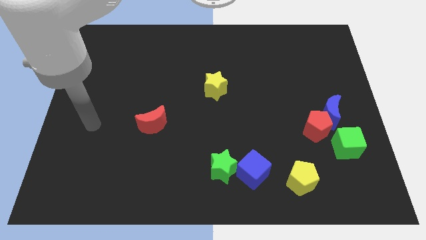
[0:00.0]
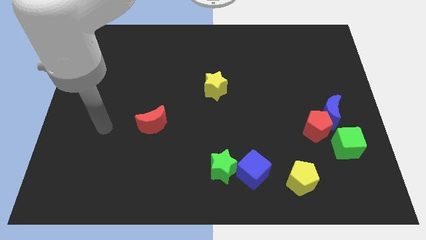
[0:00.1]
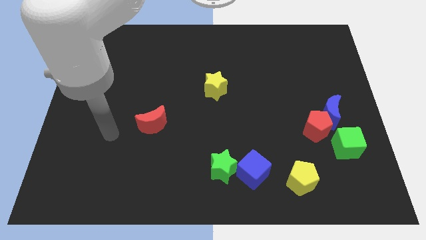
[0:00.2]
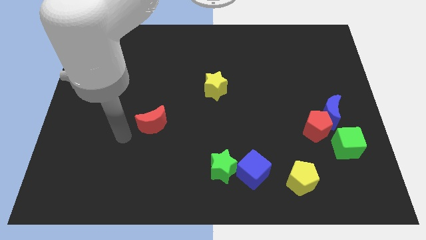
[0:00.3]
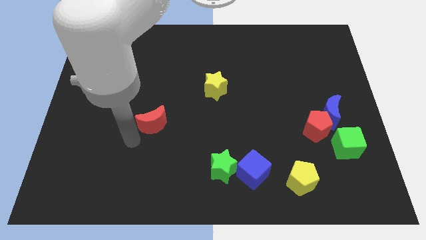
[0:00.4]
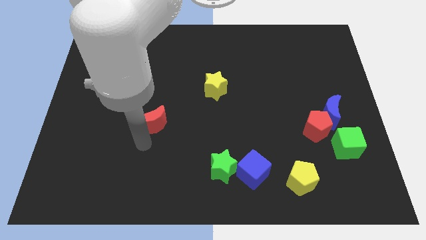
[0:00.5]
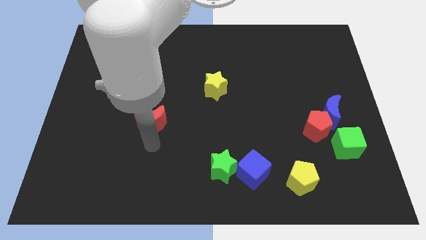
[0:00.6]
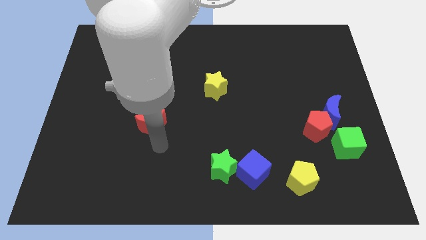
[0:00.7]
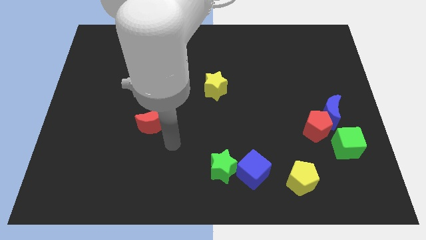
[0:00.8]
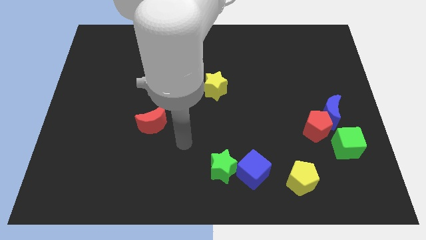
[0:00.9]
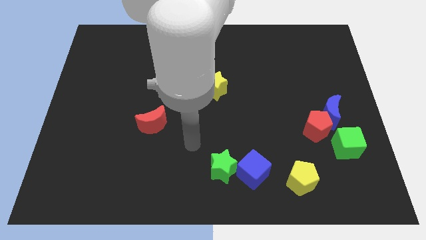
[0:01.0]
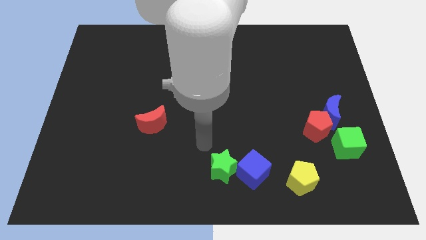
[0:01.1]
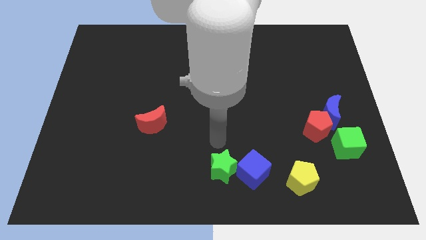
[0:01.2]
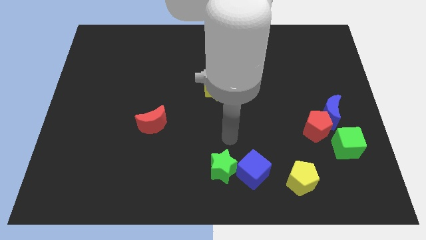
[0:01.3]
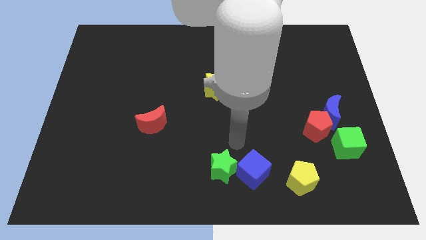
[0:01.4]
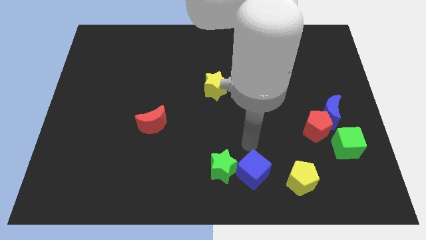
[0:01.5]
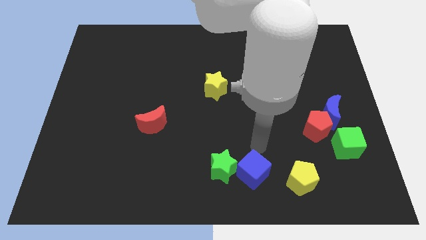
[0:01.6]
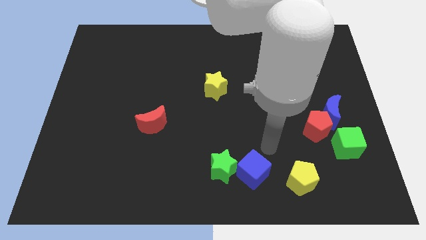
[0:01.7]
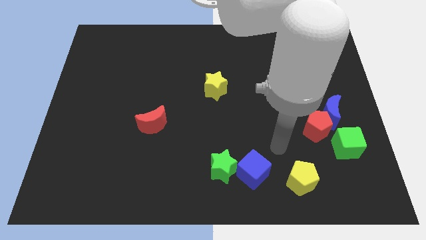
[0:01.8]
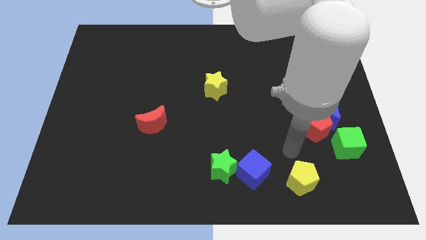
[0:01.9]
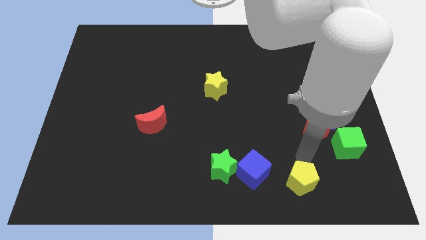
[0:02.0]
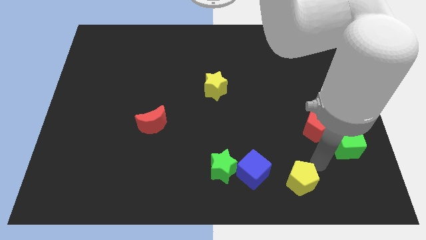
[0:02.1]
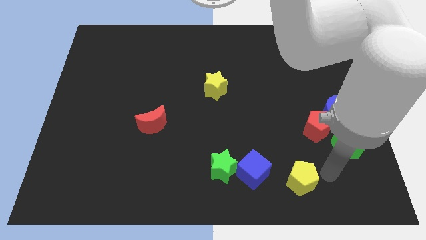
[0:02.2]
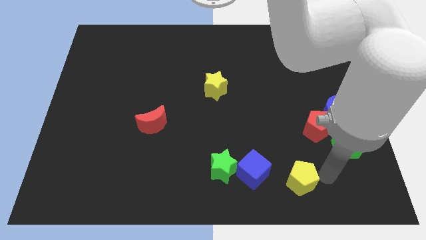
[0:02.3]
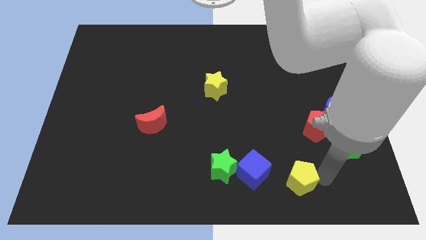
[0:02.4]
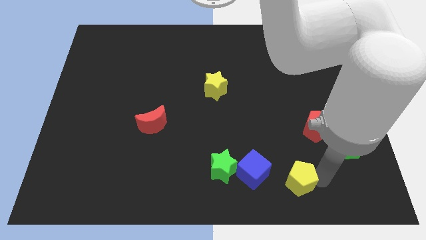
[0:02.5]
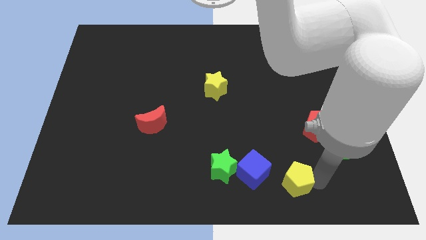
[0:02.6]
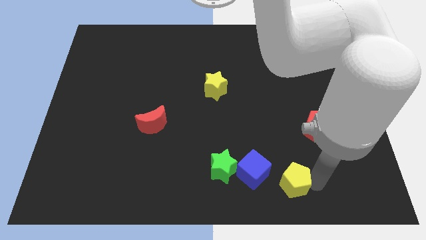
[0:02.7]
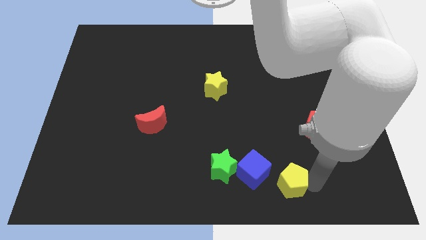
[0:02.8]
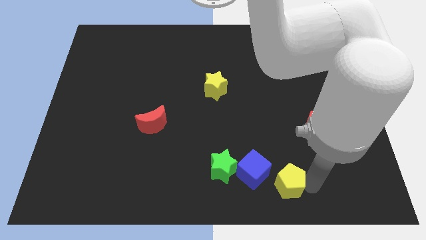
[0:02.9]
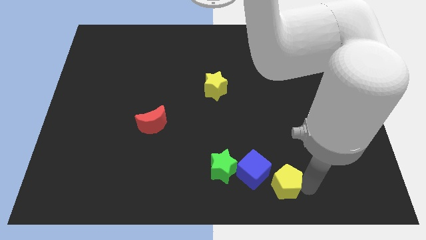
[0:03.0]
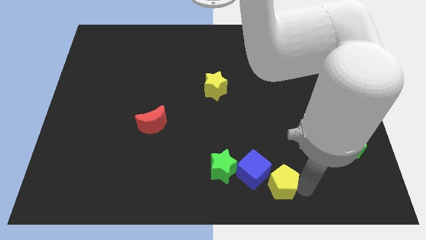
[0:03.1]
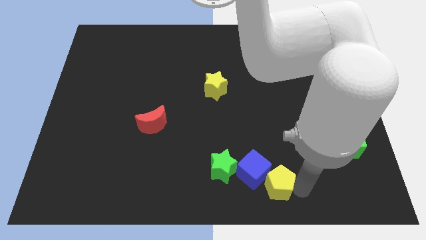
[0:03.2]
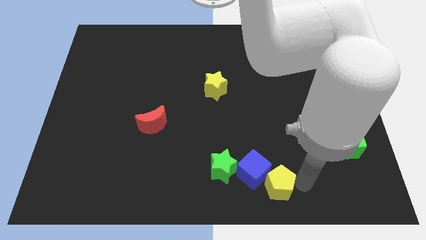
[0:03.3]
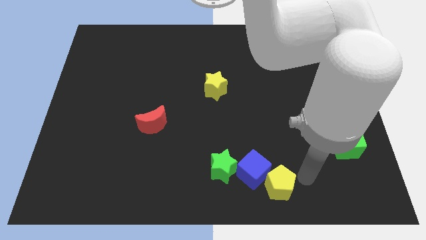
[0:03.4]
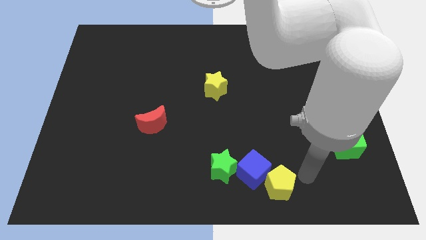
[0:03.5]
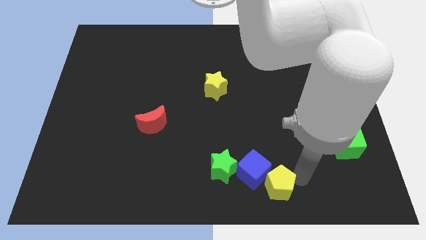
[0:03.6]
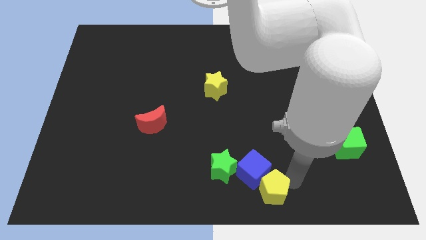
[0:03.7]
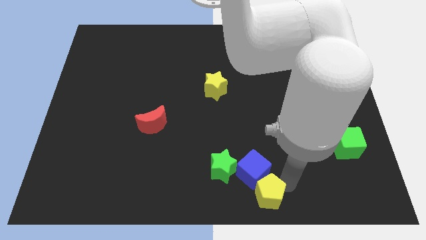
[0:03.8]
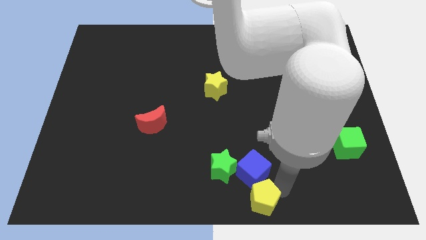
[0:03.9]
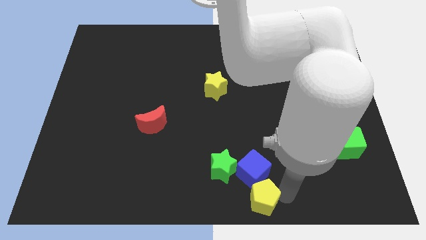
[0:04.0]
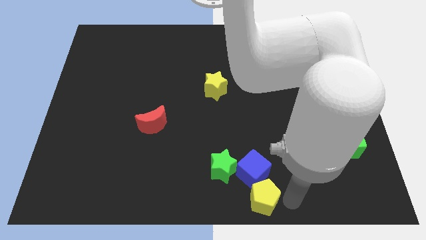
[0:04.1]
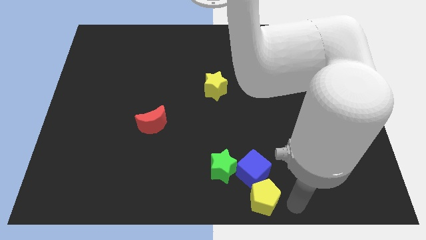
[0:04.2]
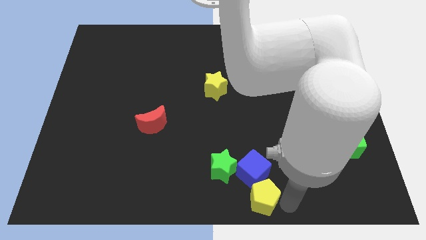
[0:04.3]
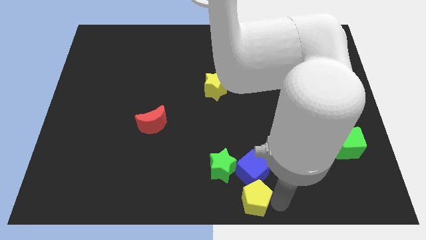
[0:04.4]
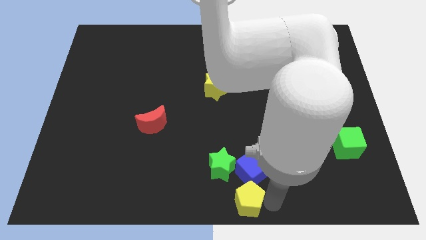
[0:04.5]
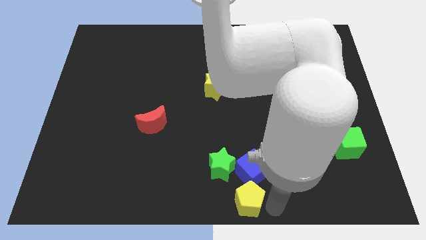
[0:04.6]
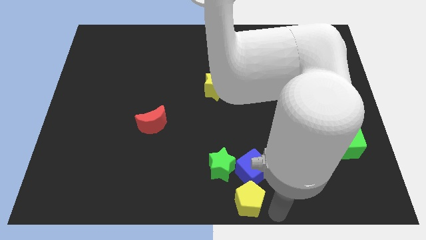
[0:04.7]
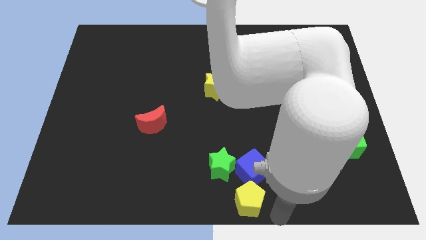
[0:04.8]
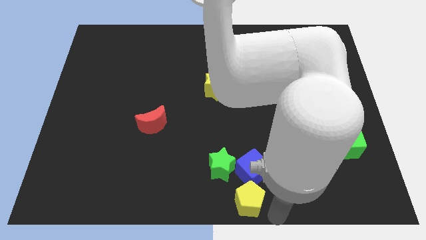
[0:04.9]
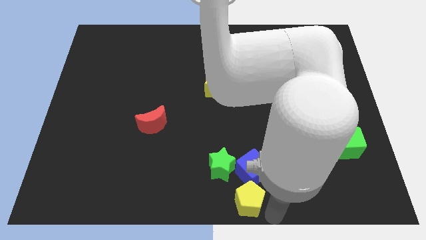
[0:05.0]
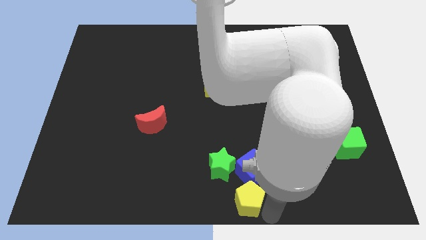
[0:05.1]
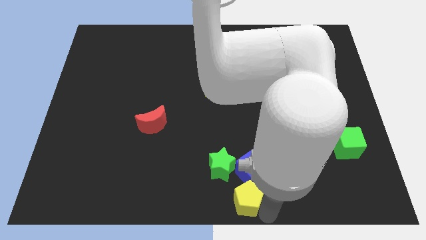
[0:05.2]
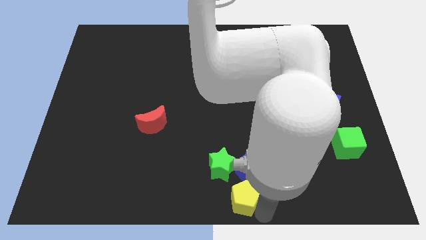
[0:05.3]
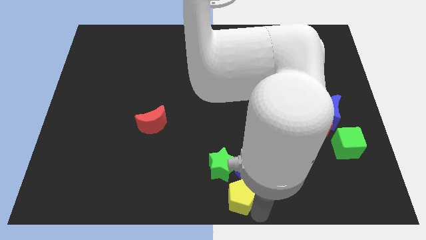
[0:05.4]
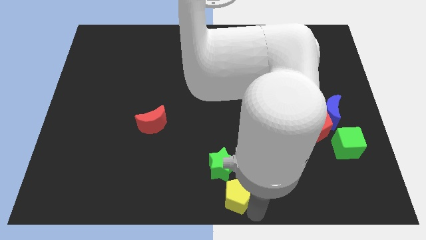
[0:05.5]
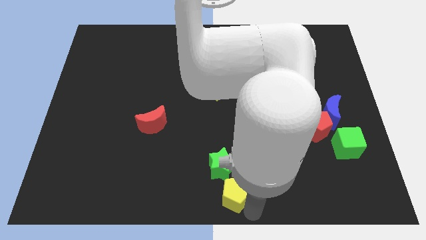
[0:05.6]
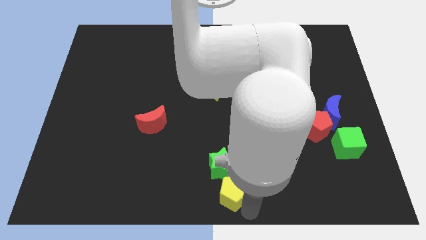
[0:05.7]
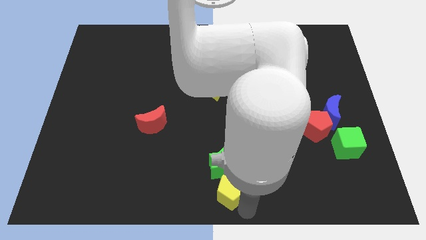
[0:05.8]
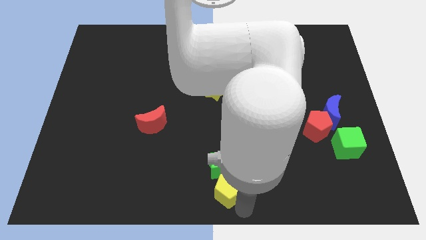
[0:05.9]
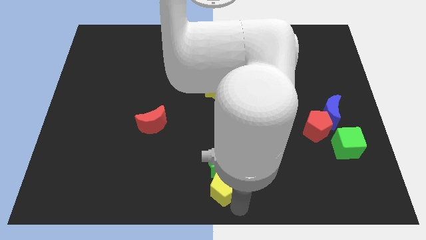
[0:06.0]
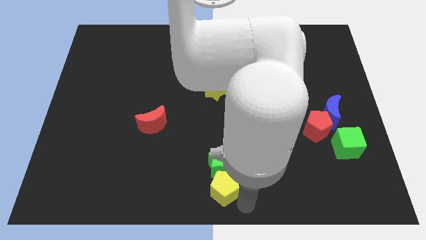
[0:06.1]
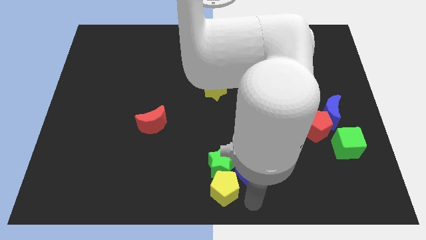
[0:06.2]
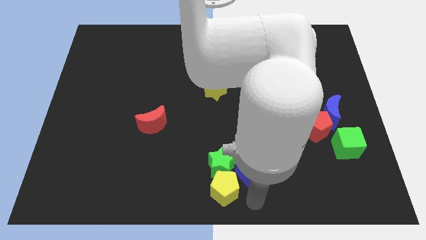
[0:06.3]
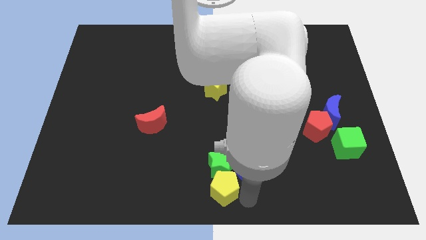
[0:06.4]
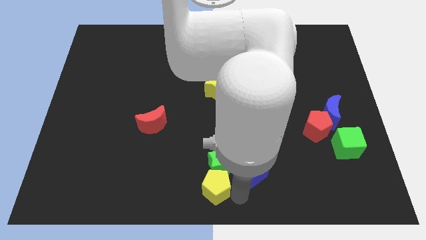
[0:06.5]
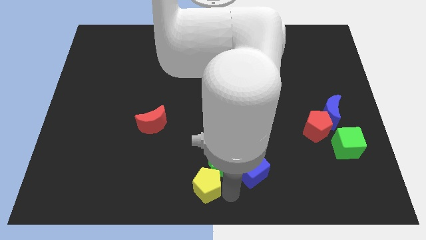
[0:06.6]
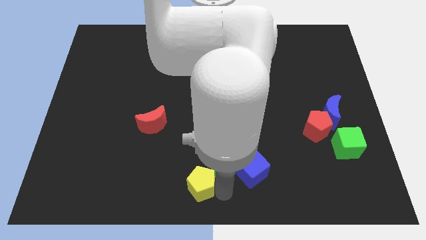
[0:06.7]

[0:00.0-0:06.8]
push the yellow pentagon left of the green star

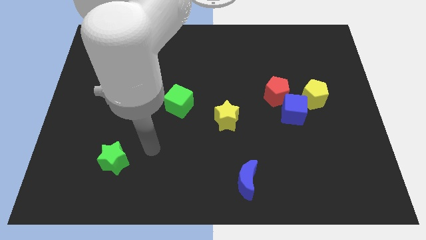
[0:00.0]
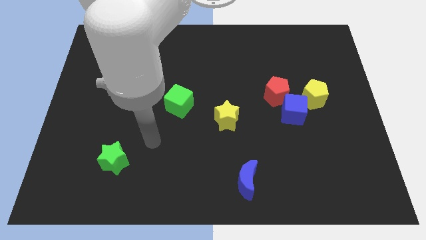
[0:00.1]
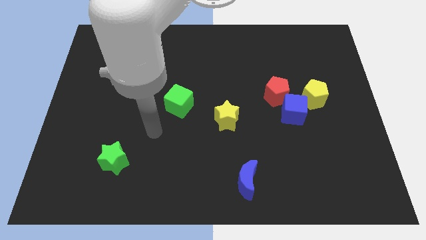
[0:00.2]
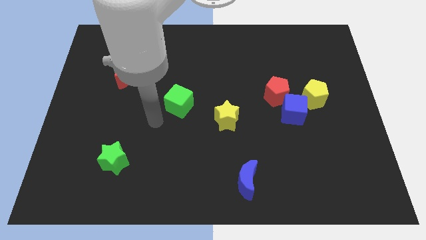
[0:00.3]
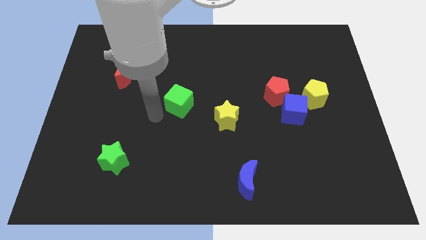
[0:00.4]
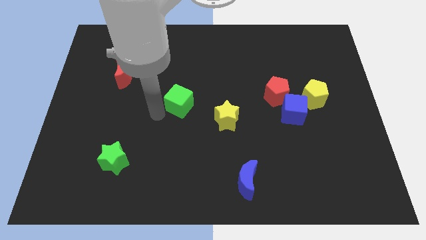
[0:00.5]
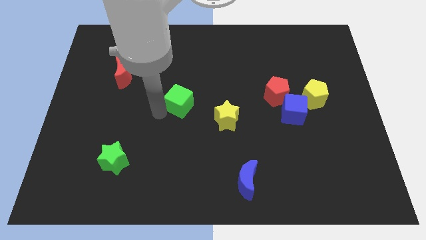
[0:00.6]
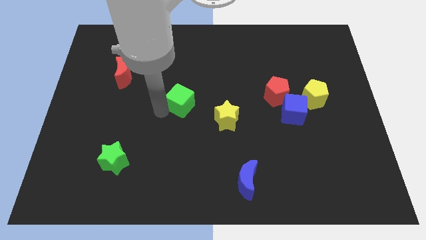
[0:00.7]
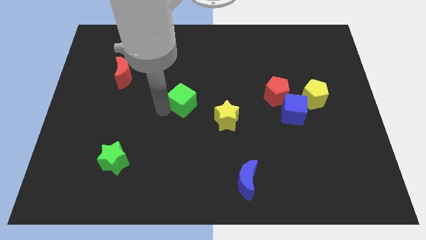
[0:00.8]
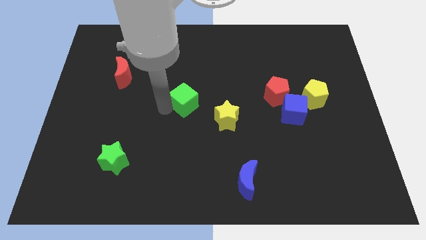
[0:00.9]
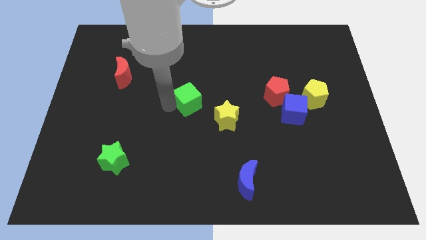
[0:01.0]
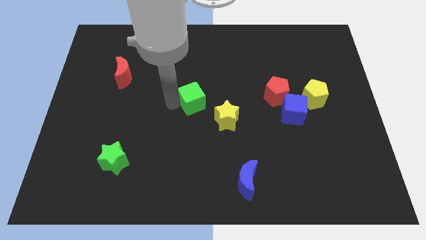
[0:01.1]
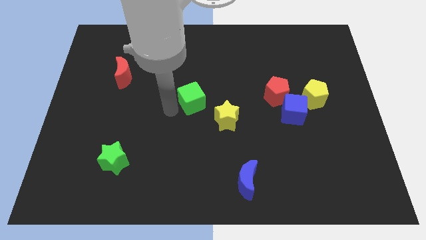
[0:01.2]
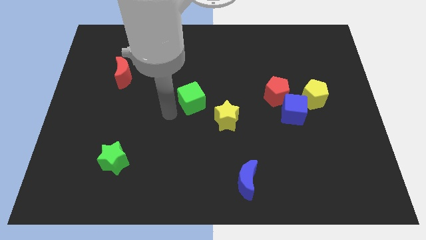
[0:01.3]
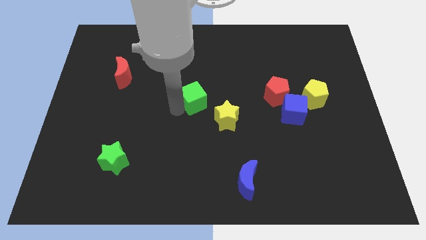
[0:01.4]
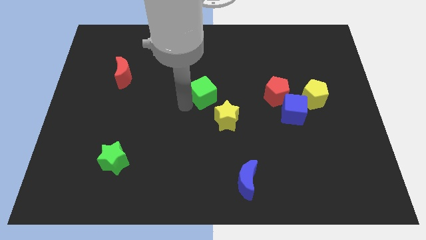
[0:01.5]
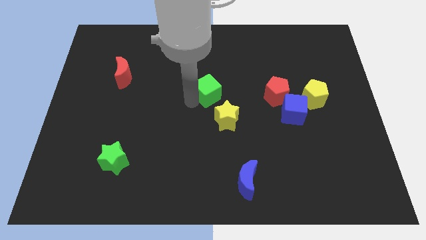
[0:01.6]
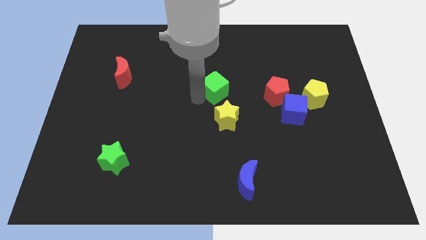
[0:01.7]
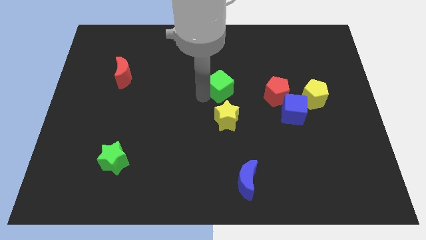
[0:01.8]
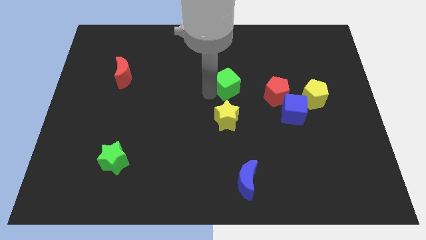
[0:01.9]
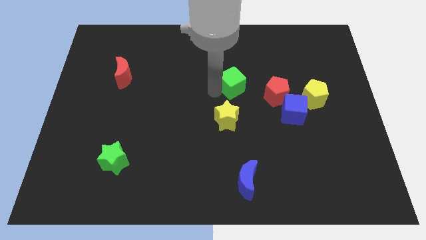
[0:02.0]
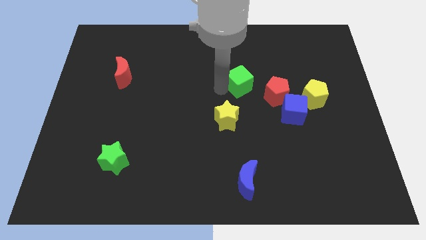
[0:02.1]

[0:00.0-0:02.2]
move the green cube to the top left of the red pentagon
